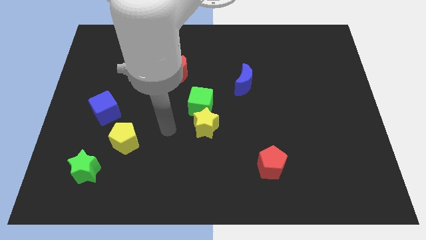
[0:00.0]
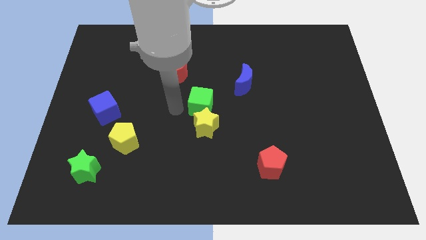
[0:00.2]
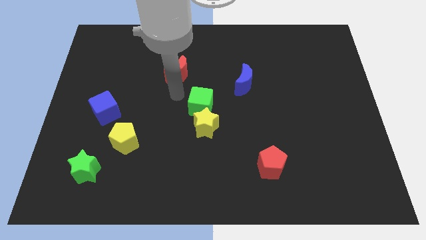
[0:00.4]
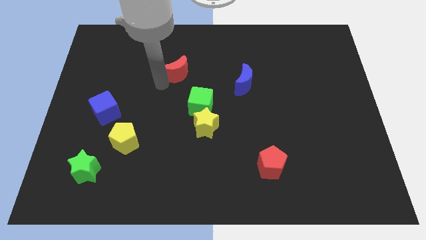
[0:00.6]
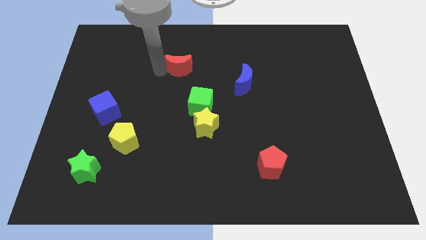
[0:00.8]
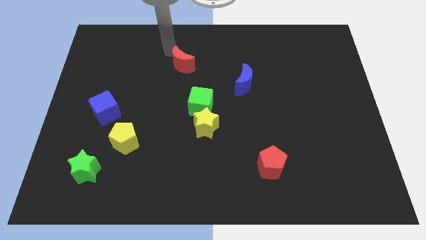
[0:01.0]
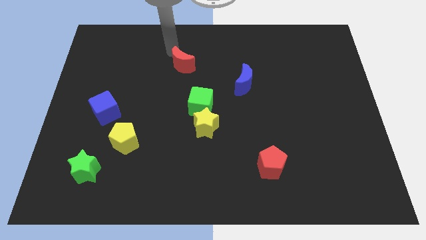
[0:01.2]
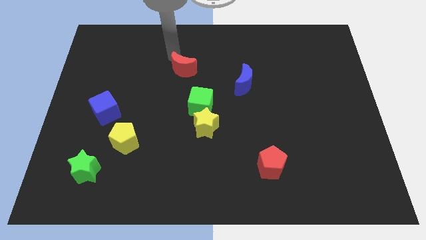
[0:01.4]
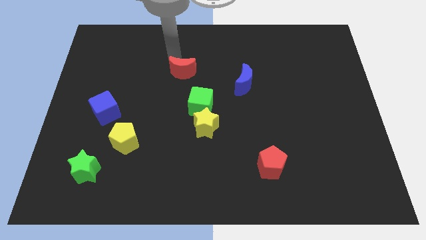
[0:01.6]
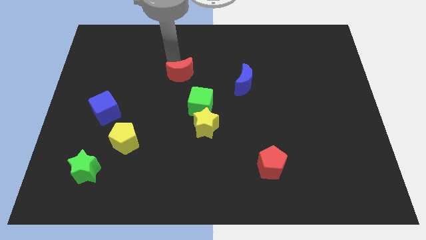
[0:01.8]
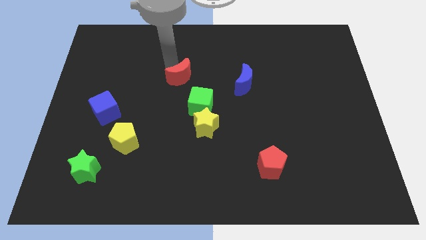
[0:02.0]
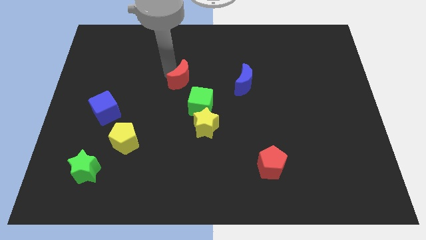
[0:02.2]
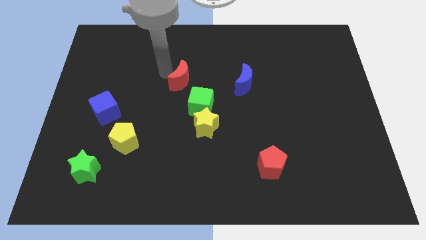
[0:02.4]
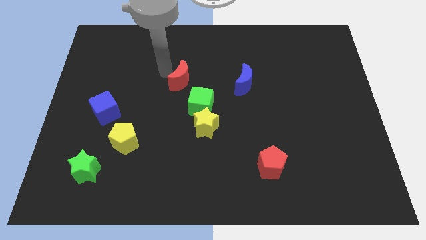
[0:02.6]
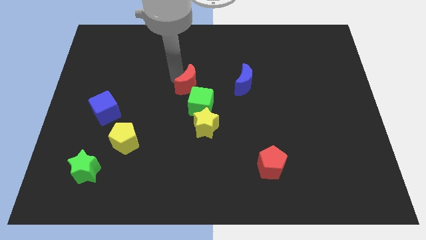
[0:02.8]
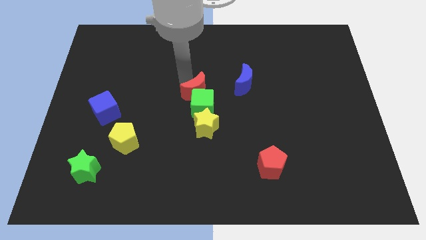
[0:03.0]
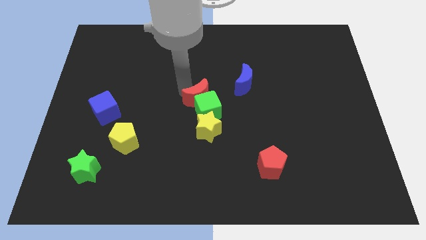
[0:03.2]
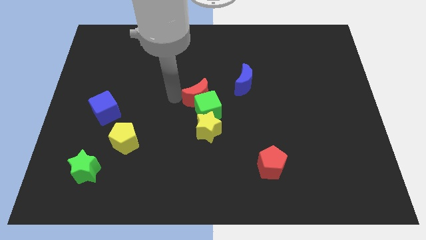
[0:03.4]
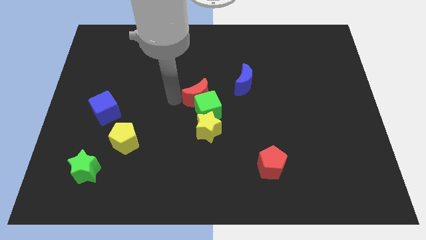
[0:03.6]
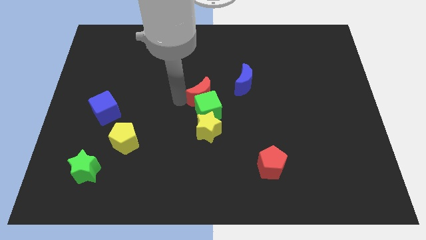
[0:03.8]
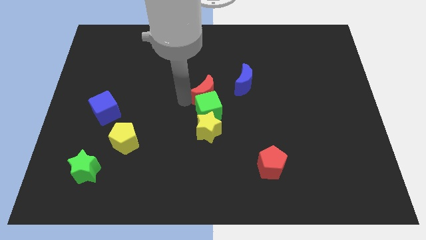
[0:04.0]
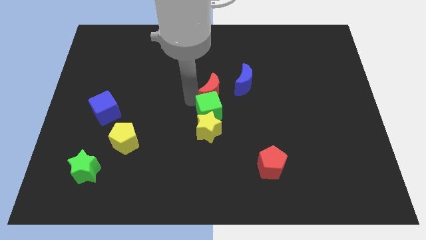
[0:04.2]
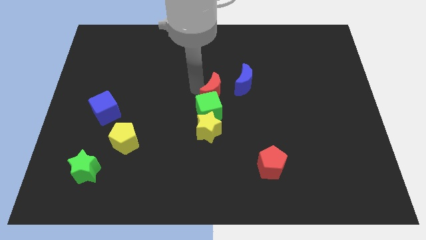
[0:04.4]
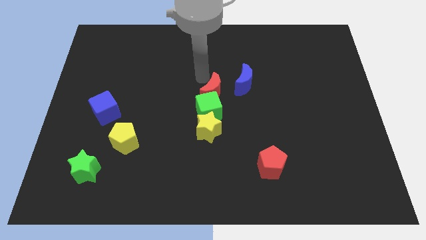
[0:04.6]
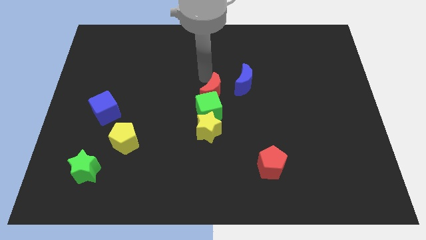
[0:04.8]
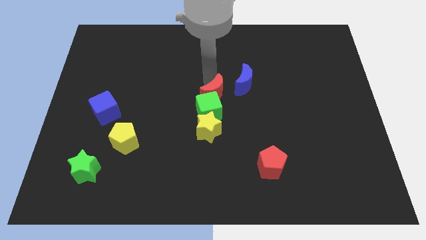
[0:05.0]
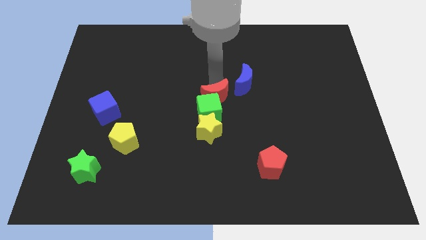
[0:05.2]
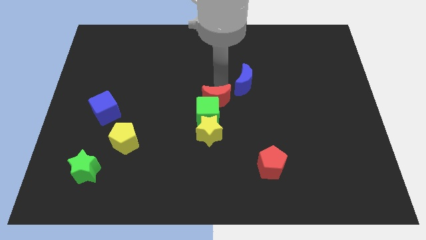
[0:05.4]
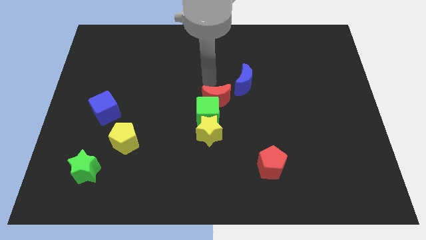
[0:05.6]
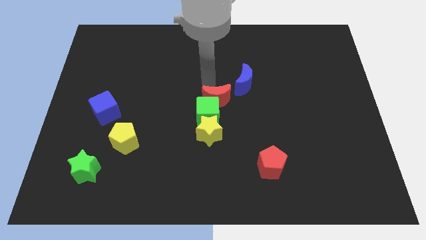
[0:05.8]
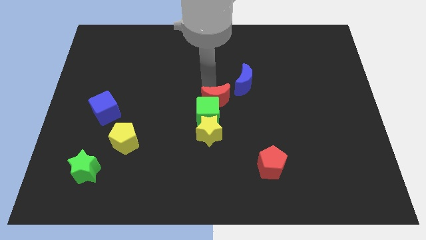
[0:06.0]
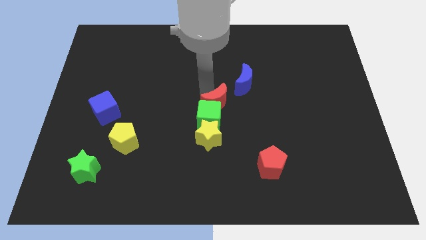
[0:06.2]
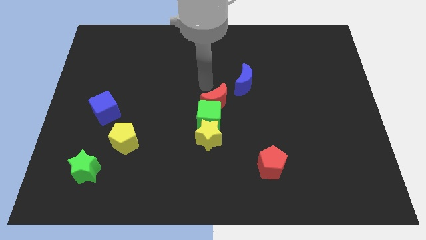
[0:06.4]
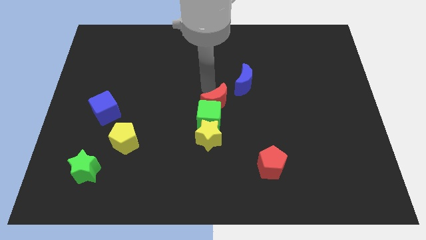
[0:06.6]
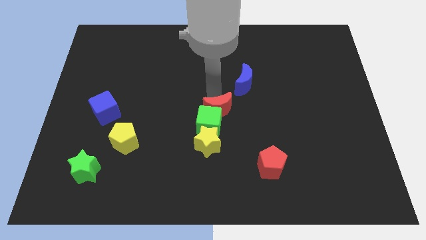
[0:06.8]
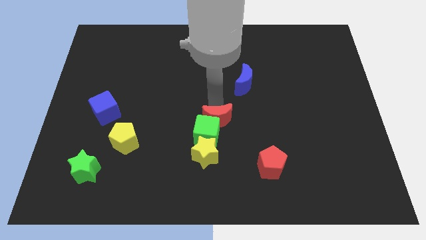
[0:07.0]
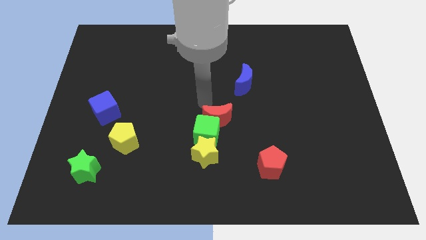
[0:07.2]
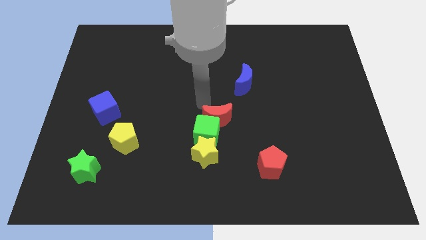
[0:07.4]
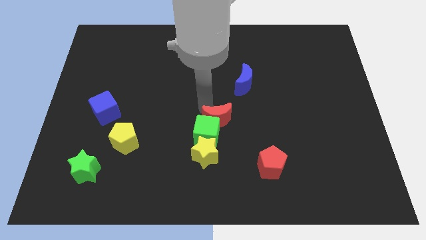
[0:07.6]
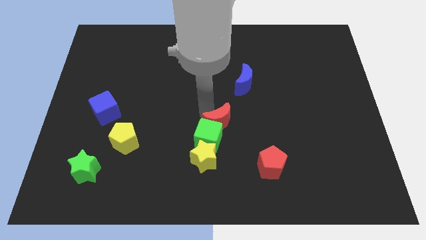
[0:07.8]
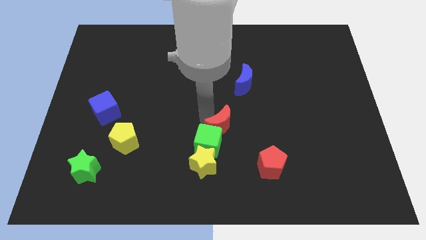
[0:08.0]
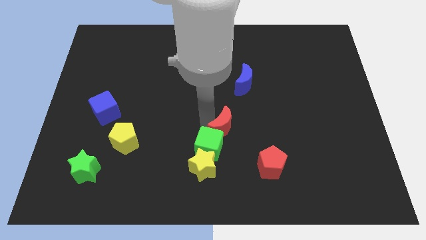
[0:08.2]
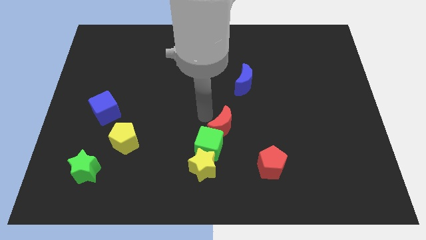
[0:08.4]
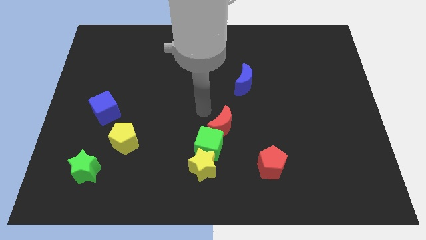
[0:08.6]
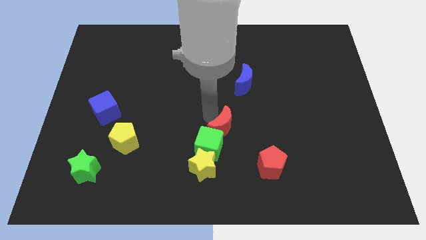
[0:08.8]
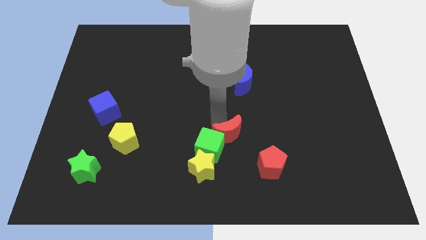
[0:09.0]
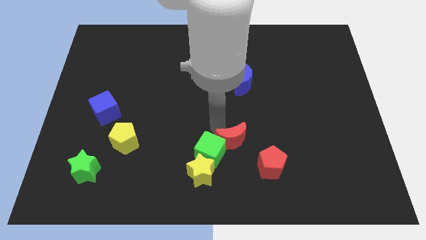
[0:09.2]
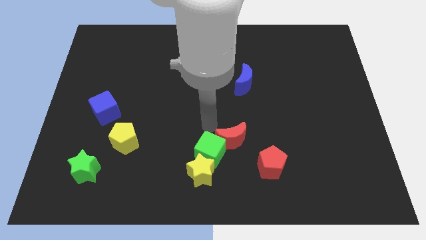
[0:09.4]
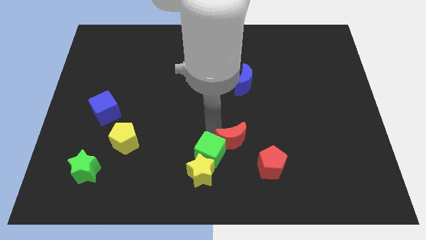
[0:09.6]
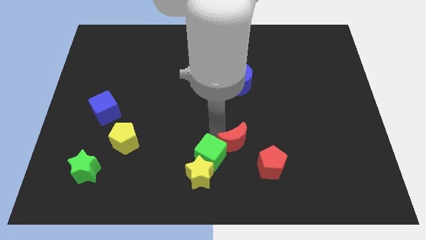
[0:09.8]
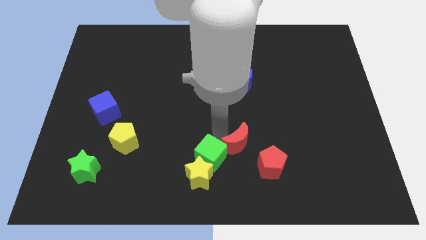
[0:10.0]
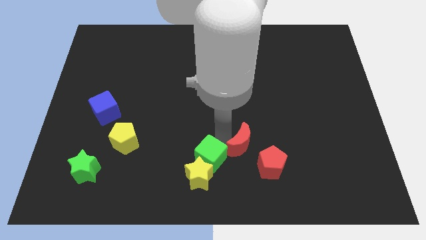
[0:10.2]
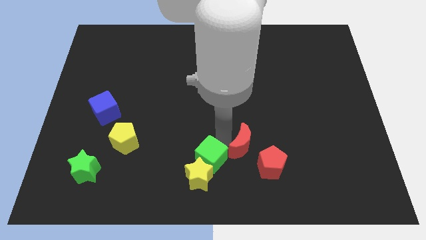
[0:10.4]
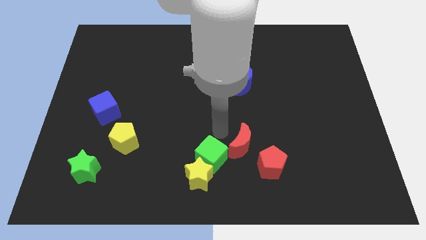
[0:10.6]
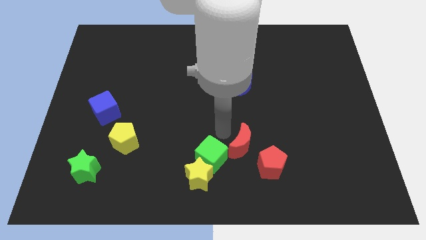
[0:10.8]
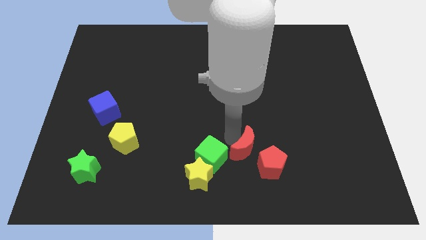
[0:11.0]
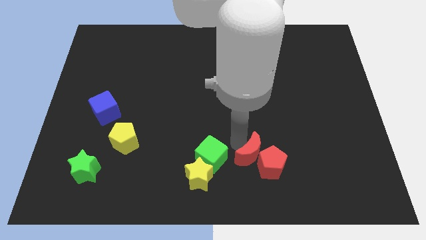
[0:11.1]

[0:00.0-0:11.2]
put the red moon towards the red pentagon

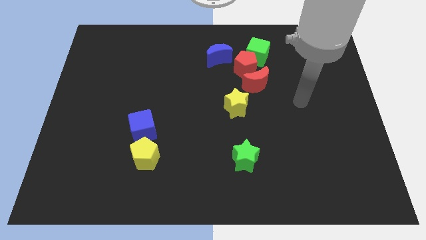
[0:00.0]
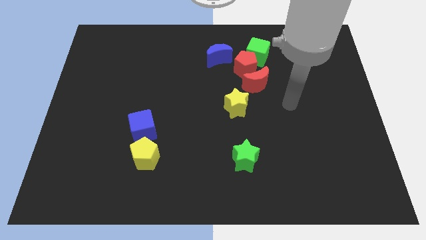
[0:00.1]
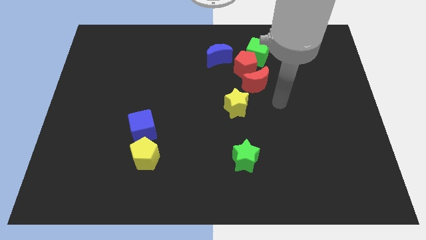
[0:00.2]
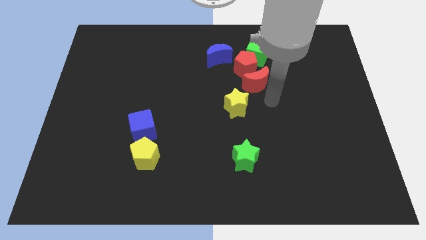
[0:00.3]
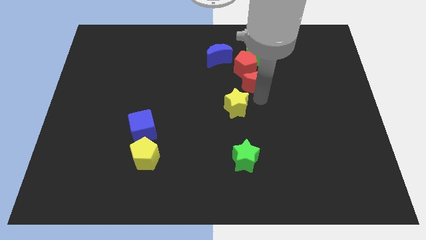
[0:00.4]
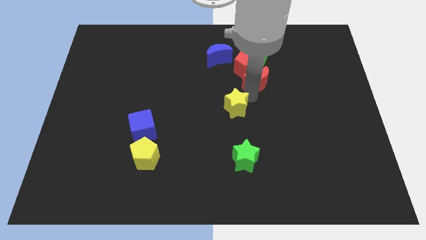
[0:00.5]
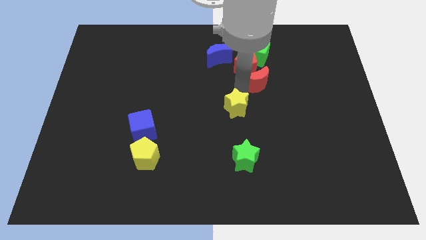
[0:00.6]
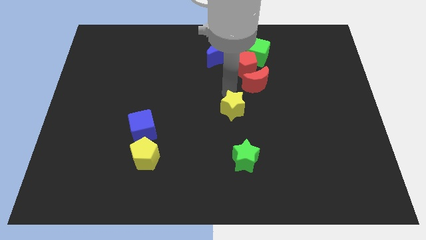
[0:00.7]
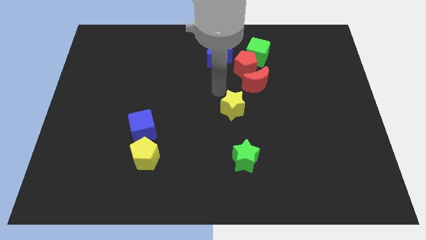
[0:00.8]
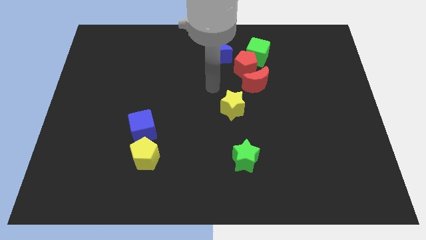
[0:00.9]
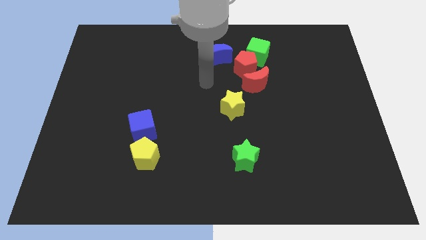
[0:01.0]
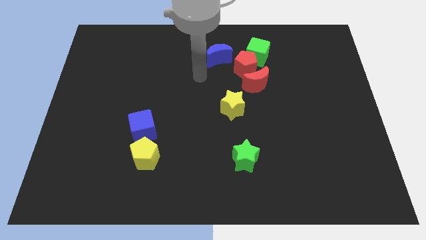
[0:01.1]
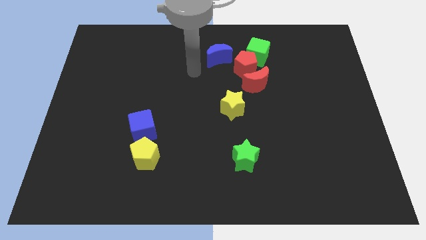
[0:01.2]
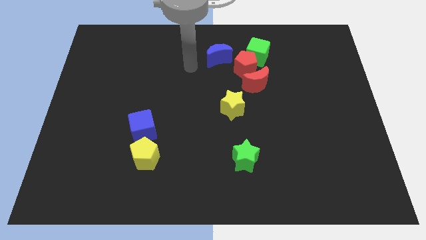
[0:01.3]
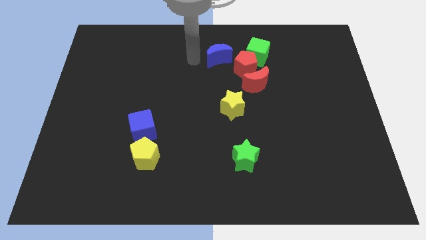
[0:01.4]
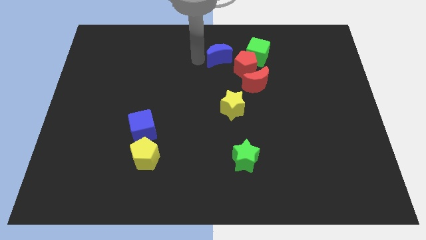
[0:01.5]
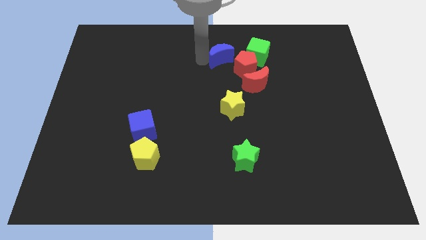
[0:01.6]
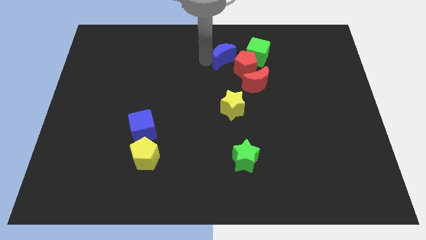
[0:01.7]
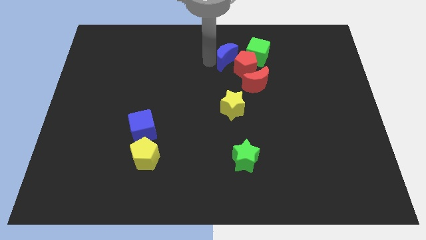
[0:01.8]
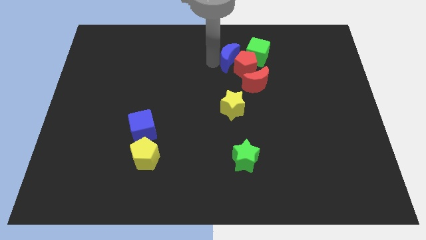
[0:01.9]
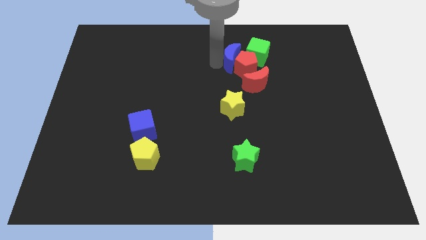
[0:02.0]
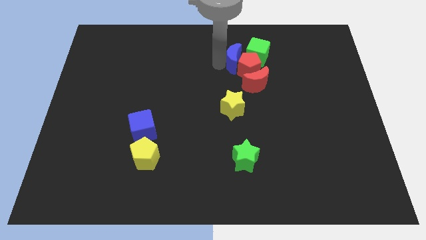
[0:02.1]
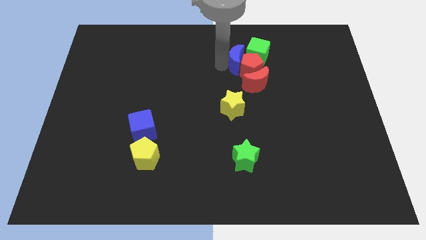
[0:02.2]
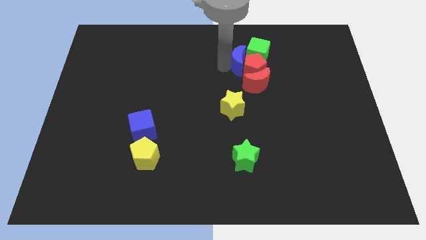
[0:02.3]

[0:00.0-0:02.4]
put the blue moon next to the green cube
